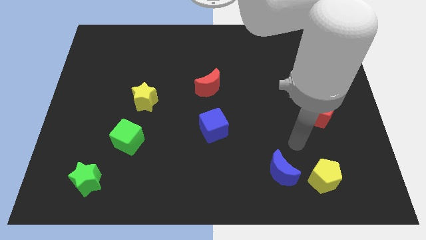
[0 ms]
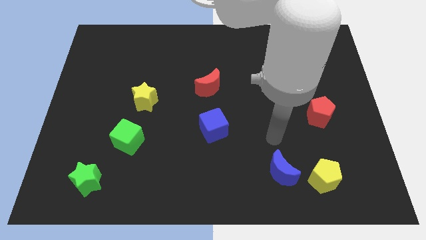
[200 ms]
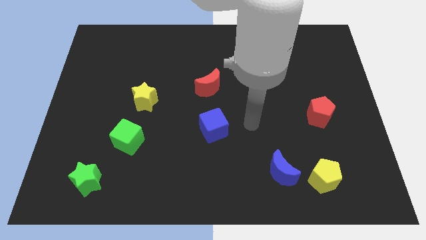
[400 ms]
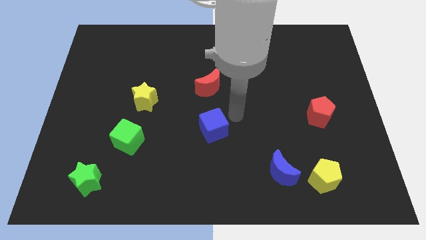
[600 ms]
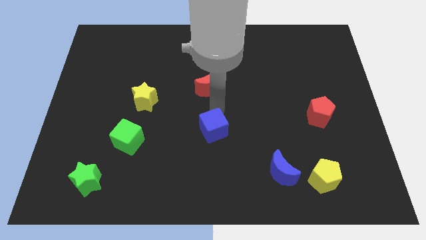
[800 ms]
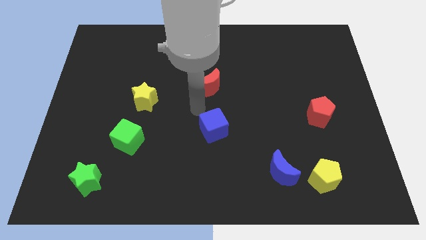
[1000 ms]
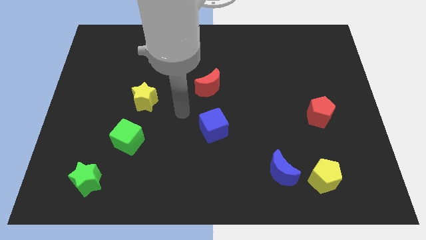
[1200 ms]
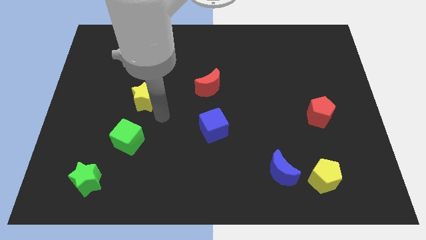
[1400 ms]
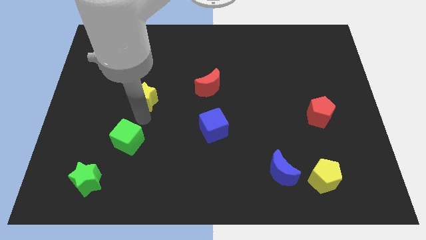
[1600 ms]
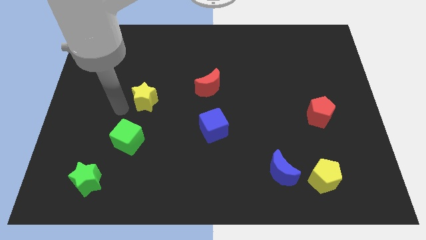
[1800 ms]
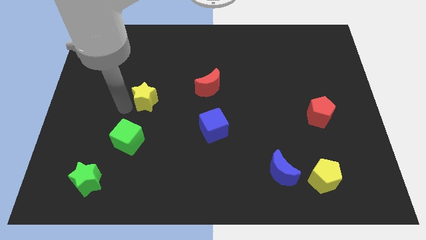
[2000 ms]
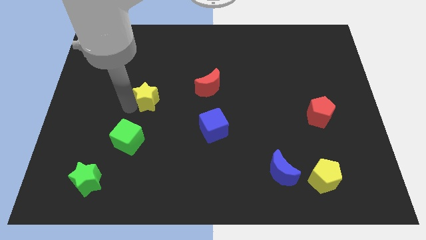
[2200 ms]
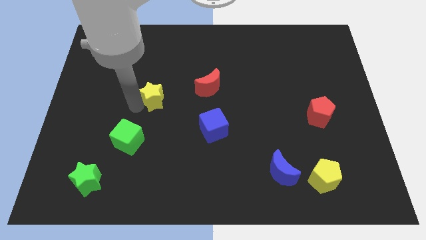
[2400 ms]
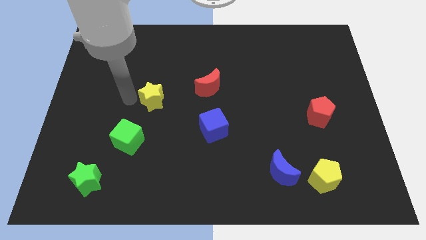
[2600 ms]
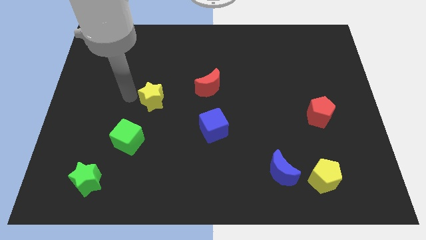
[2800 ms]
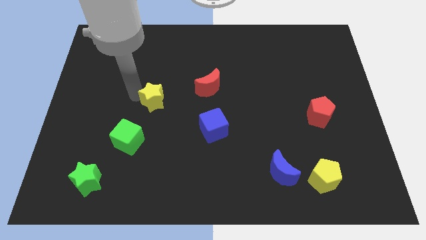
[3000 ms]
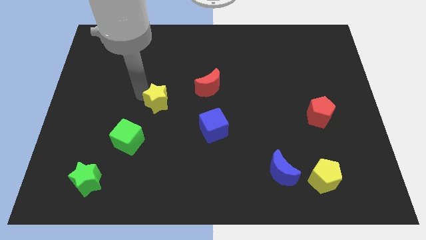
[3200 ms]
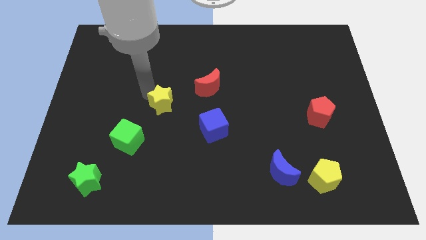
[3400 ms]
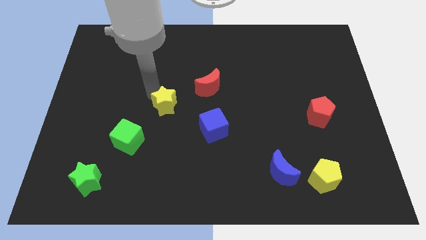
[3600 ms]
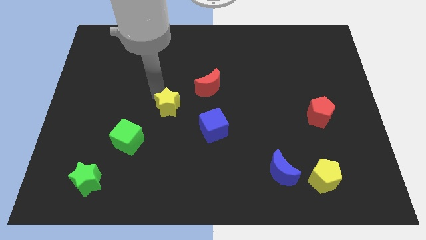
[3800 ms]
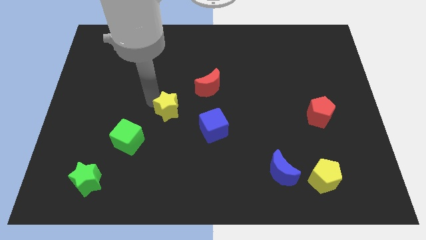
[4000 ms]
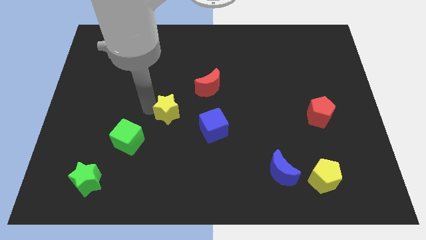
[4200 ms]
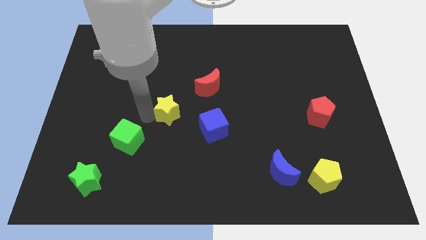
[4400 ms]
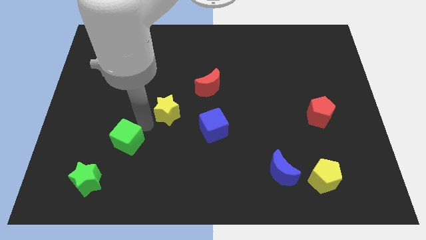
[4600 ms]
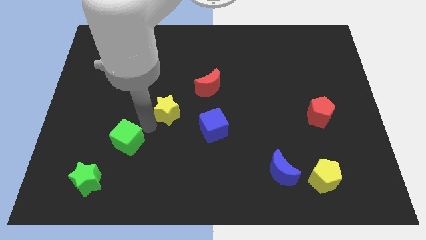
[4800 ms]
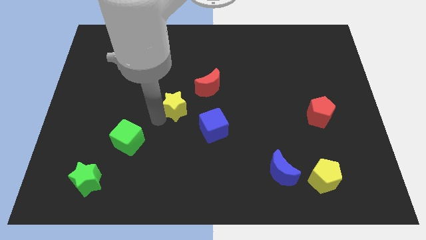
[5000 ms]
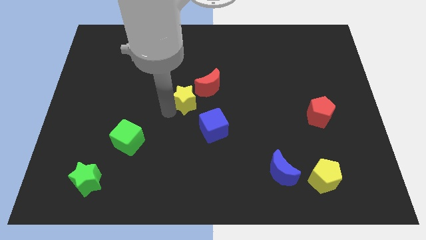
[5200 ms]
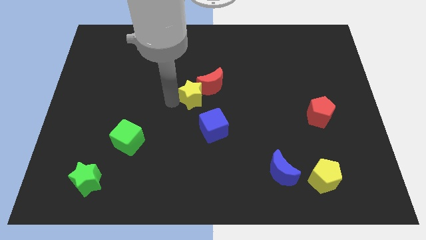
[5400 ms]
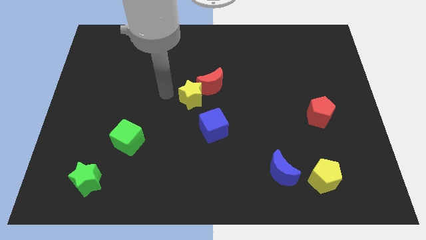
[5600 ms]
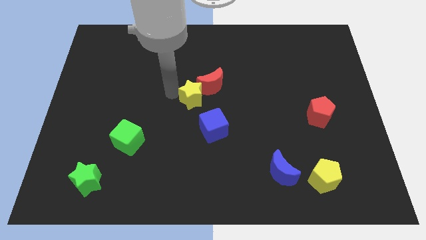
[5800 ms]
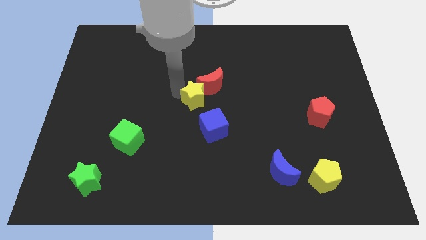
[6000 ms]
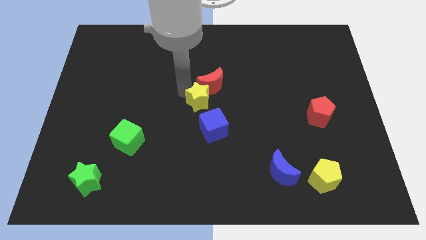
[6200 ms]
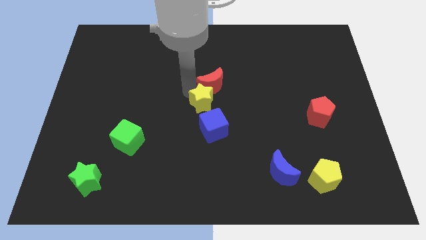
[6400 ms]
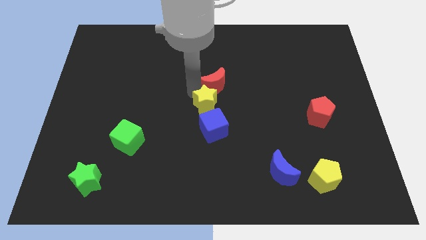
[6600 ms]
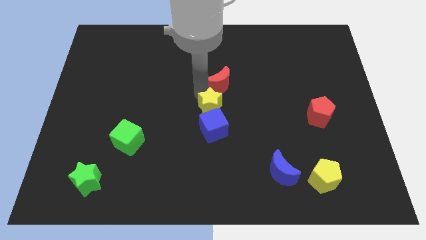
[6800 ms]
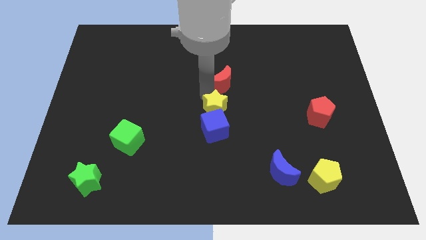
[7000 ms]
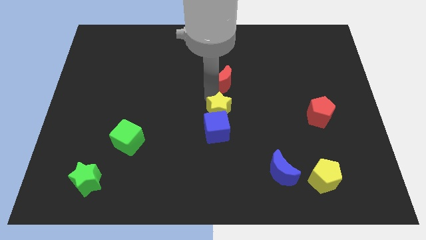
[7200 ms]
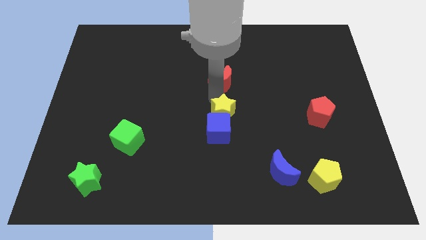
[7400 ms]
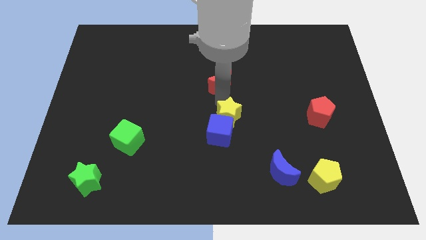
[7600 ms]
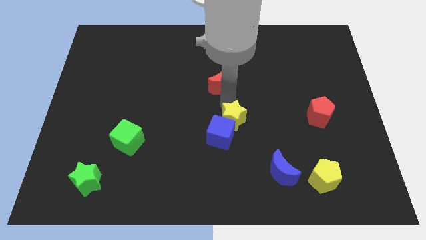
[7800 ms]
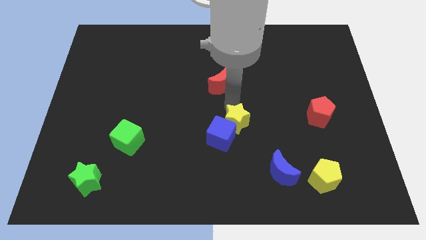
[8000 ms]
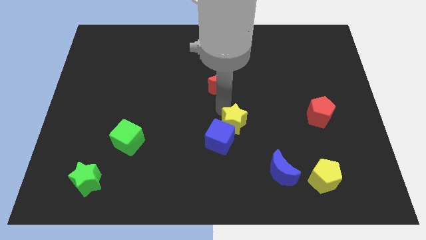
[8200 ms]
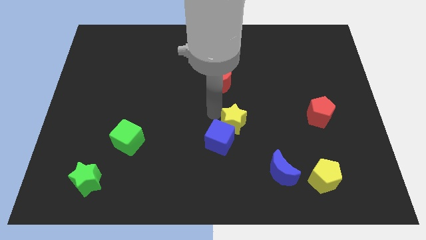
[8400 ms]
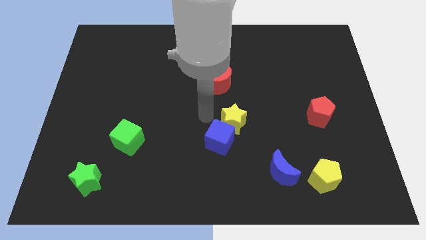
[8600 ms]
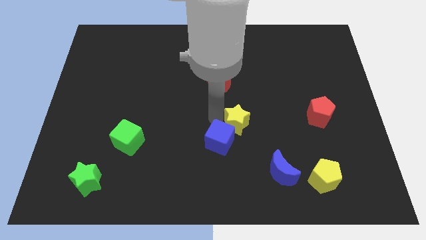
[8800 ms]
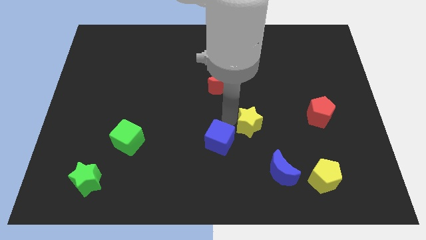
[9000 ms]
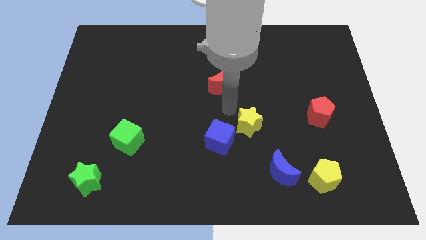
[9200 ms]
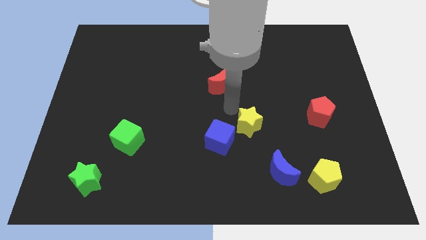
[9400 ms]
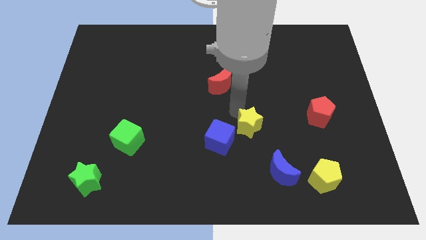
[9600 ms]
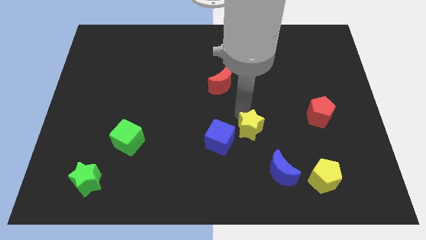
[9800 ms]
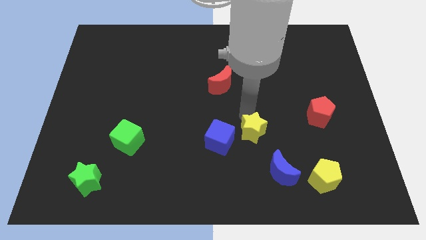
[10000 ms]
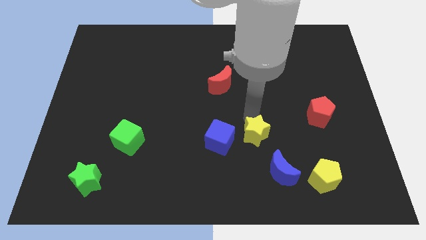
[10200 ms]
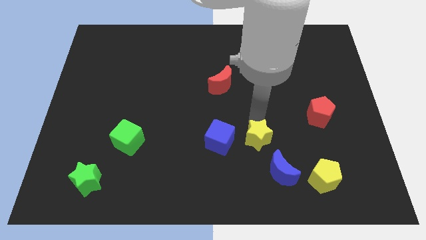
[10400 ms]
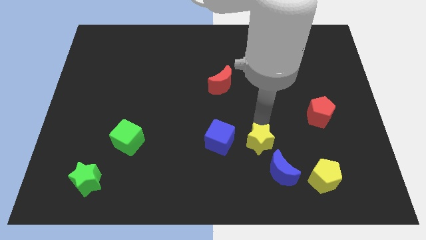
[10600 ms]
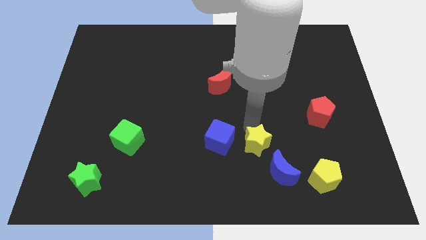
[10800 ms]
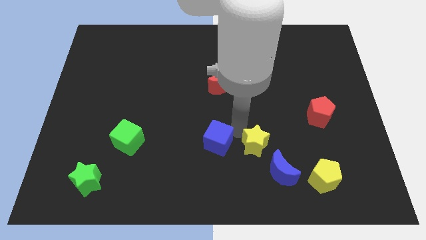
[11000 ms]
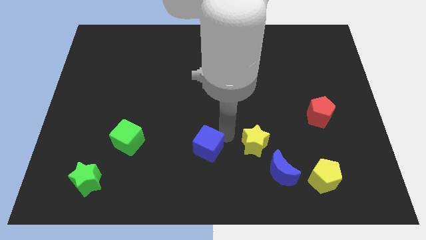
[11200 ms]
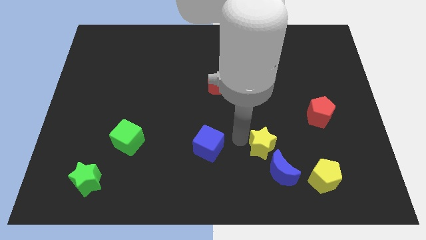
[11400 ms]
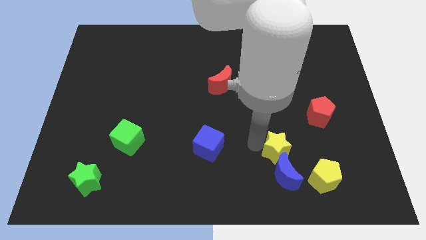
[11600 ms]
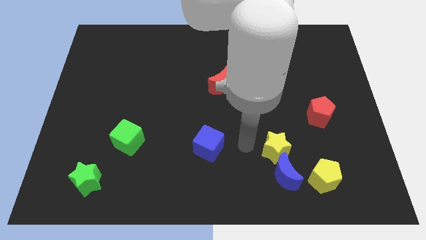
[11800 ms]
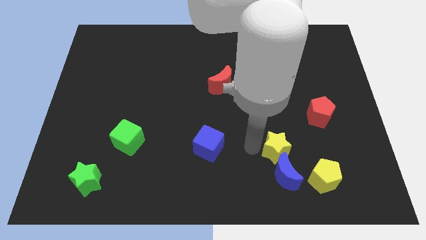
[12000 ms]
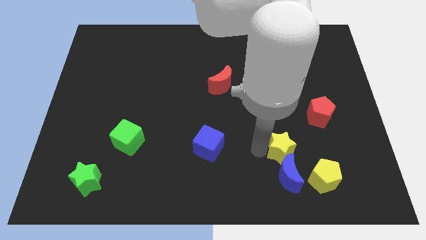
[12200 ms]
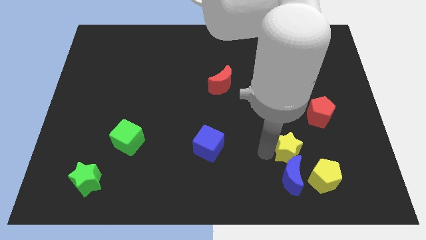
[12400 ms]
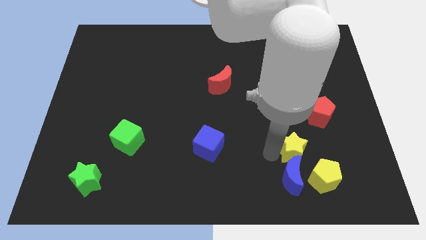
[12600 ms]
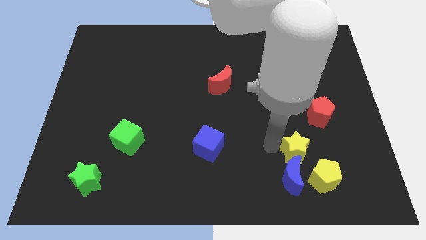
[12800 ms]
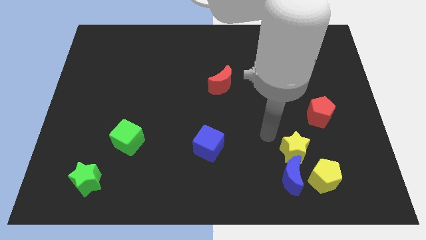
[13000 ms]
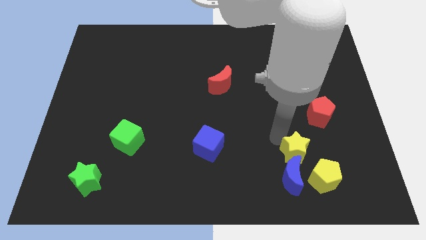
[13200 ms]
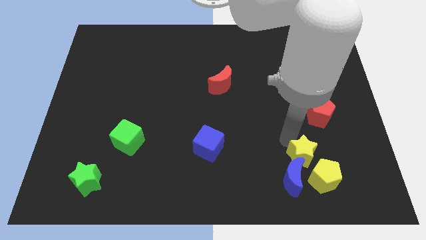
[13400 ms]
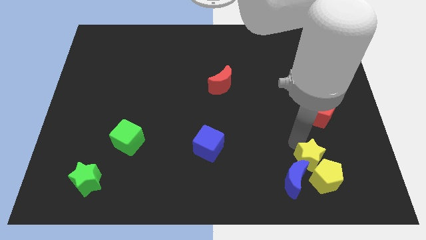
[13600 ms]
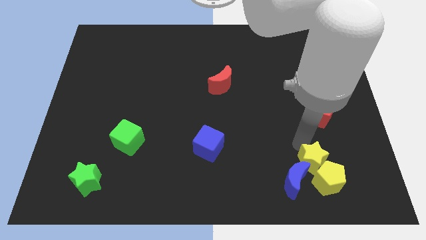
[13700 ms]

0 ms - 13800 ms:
move the yellow star right of the blue moon
